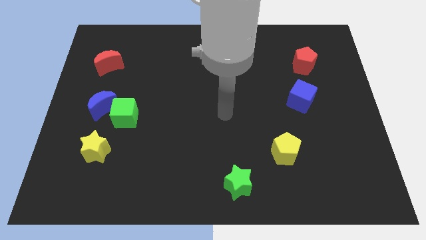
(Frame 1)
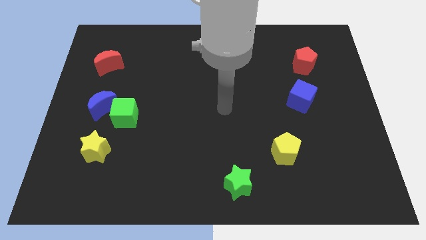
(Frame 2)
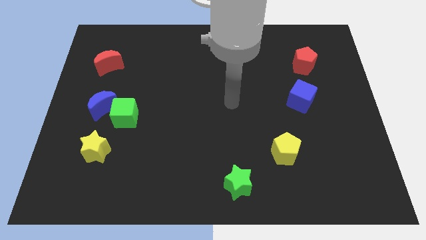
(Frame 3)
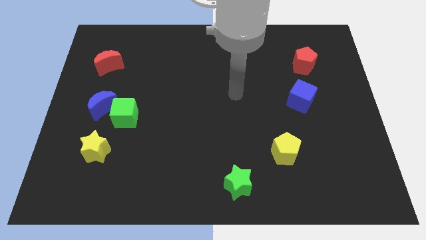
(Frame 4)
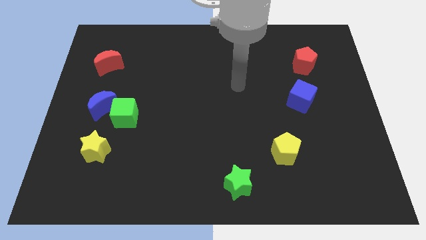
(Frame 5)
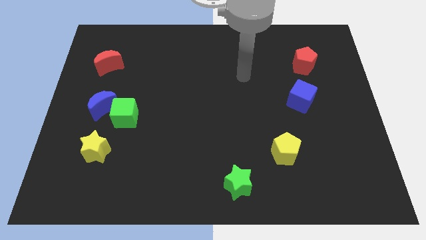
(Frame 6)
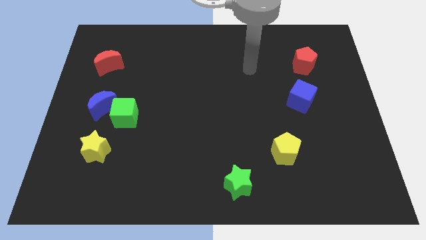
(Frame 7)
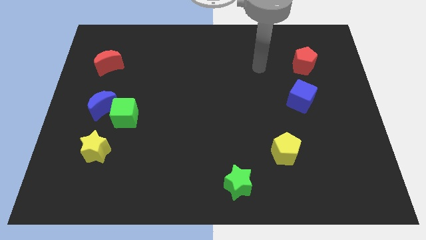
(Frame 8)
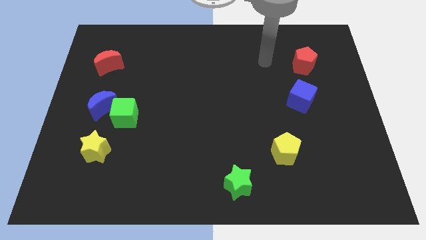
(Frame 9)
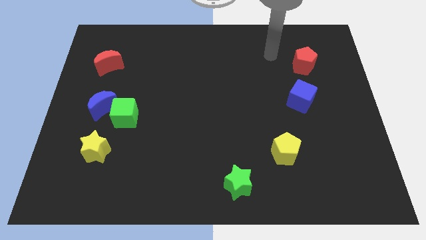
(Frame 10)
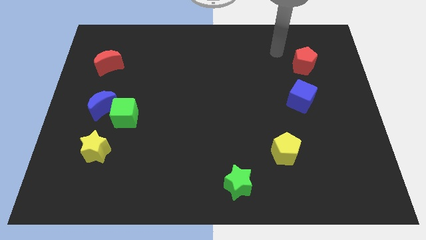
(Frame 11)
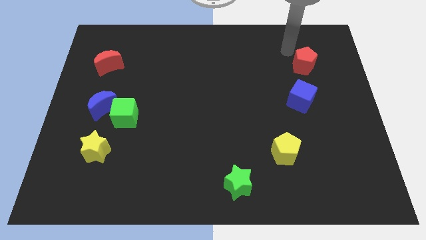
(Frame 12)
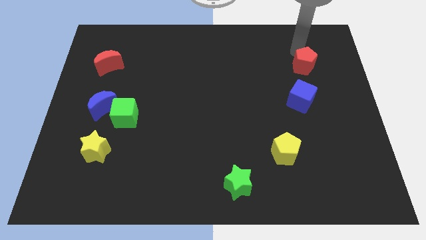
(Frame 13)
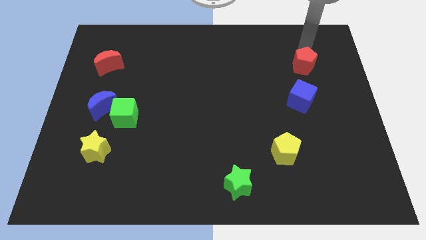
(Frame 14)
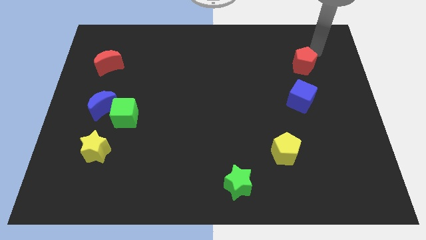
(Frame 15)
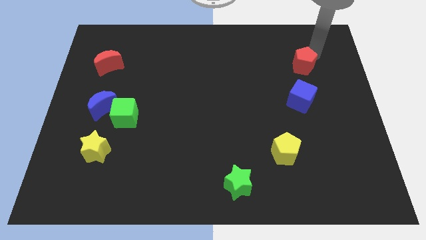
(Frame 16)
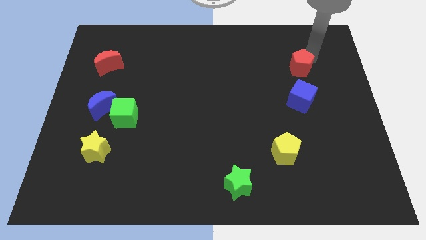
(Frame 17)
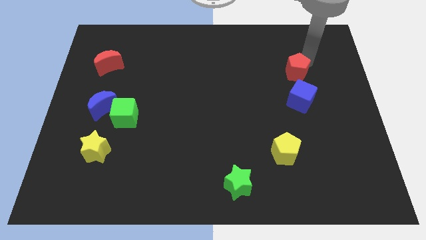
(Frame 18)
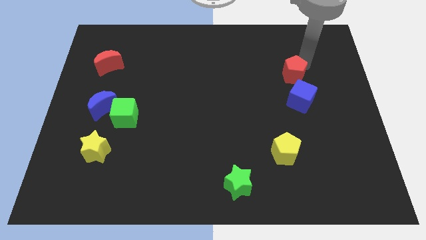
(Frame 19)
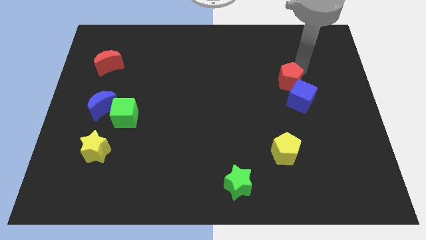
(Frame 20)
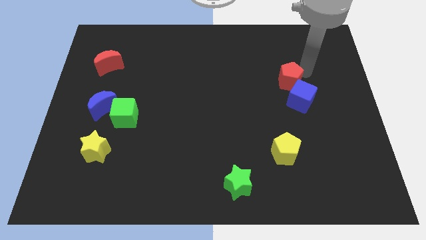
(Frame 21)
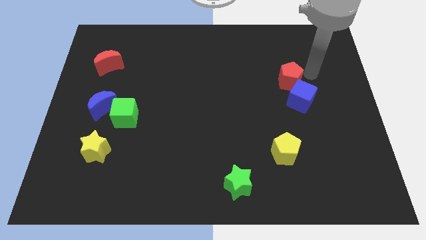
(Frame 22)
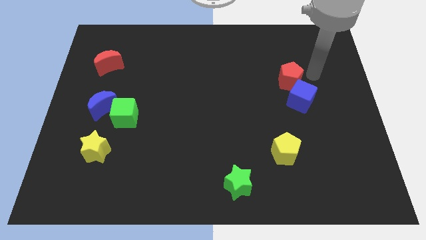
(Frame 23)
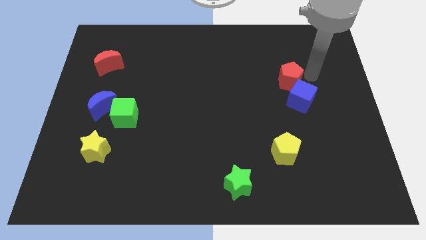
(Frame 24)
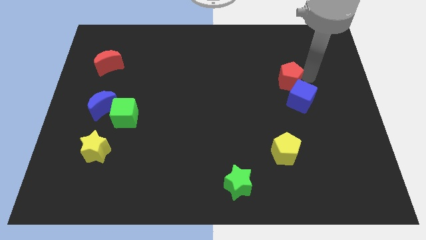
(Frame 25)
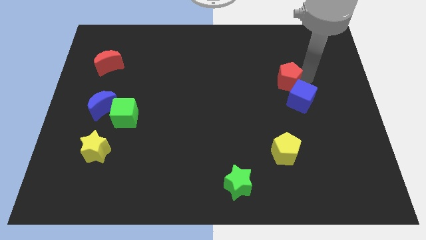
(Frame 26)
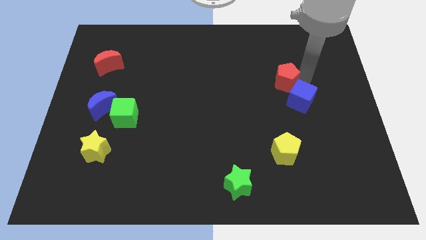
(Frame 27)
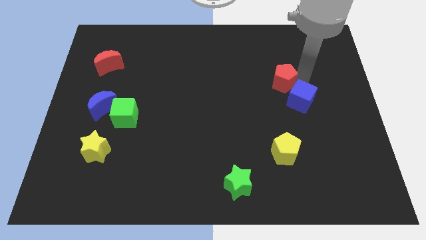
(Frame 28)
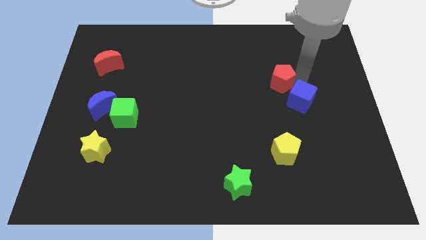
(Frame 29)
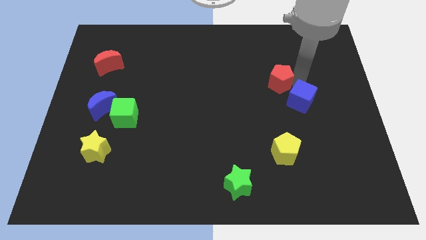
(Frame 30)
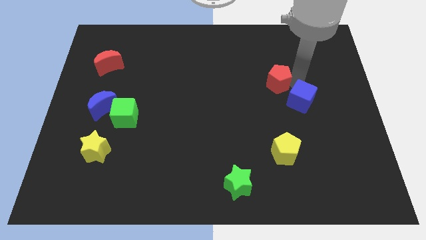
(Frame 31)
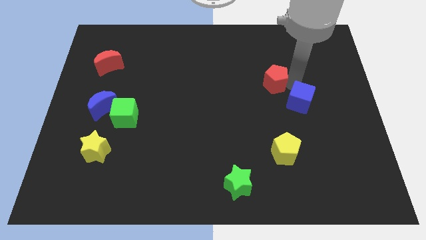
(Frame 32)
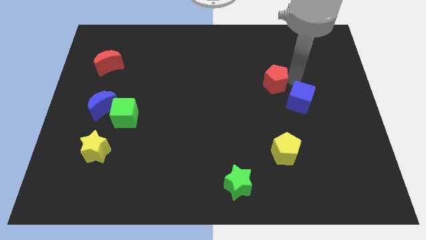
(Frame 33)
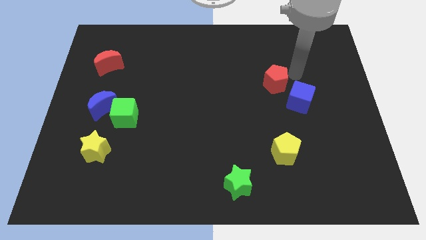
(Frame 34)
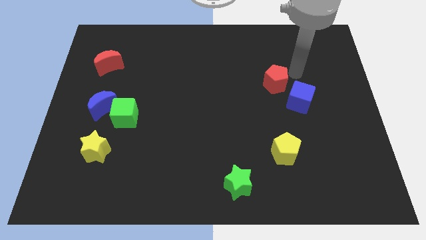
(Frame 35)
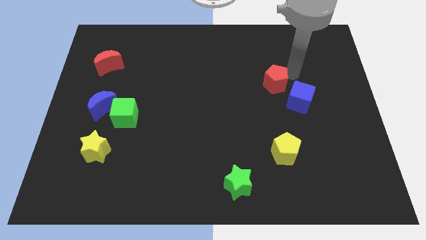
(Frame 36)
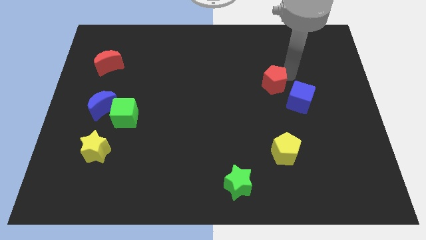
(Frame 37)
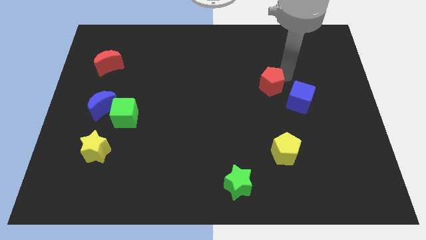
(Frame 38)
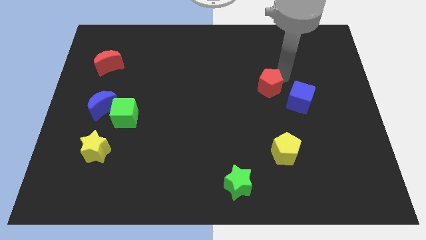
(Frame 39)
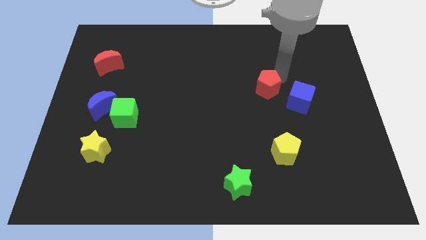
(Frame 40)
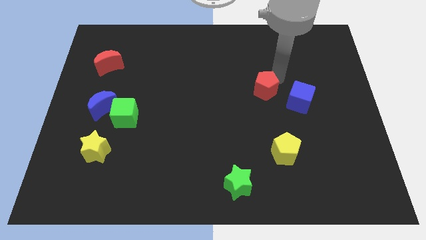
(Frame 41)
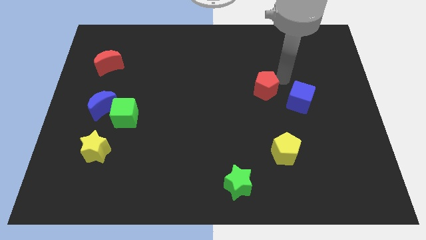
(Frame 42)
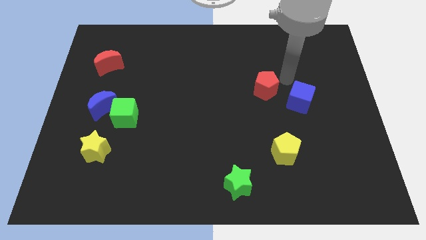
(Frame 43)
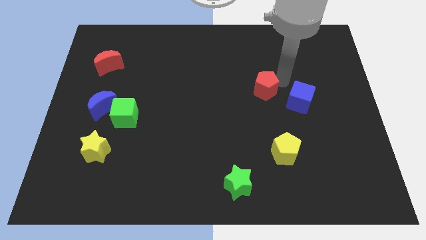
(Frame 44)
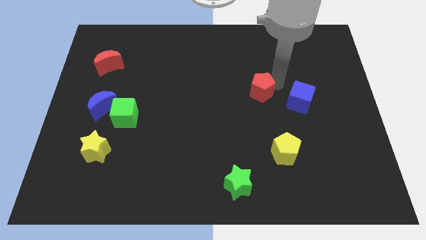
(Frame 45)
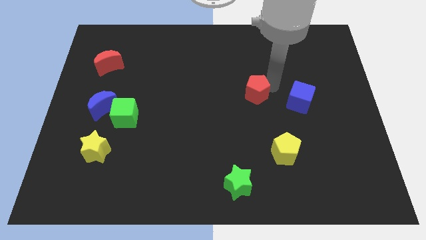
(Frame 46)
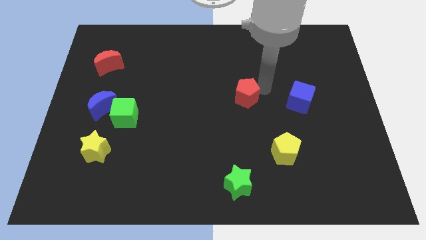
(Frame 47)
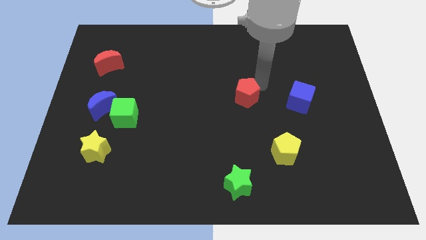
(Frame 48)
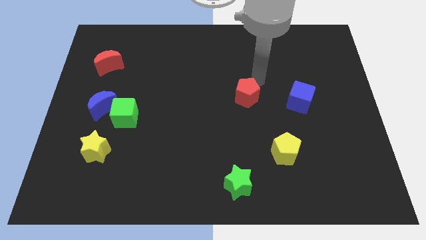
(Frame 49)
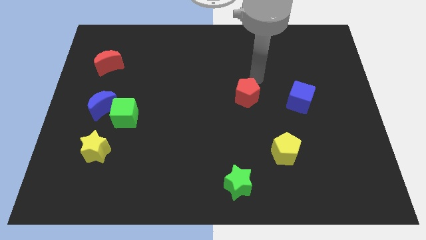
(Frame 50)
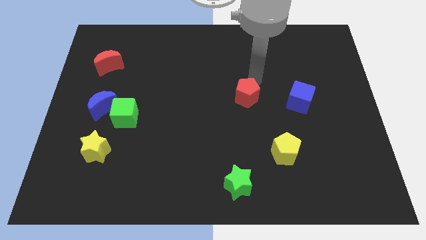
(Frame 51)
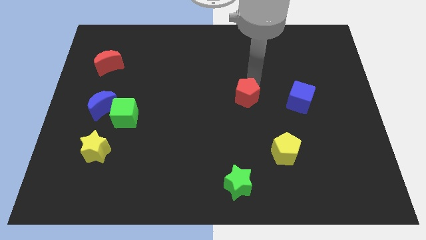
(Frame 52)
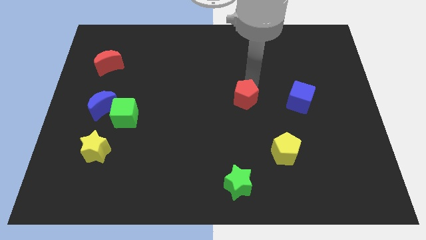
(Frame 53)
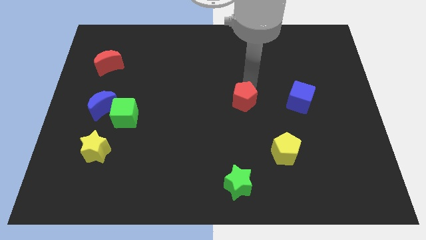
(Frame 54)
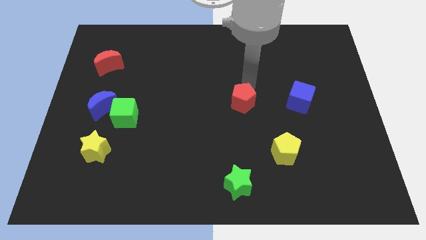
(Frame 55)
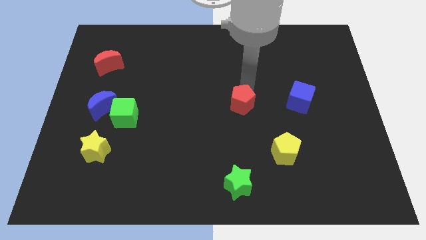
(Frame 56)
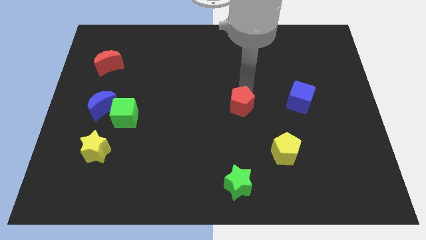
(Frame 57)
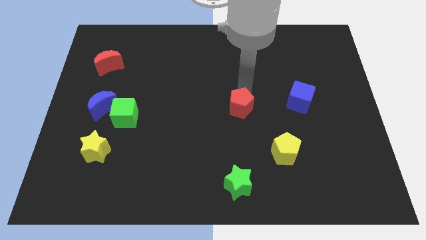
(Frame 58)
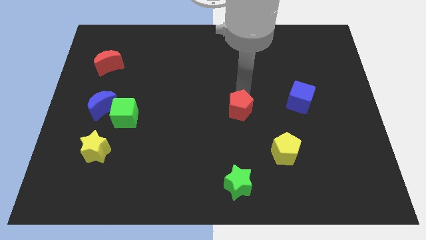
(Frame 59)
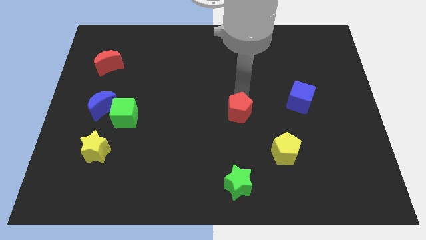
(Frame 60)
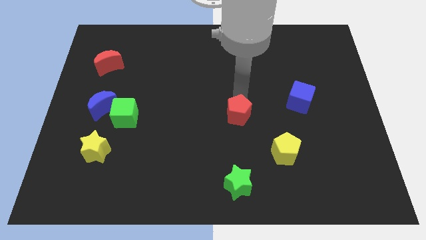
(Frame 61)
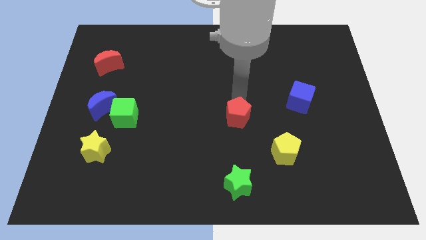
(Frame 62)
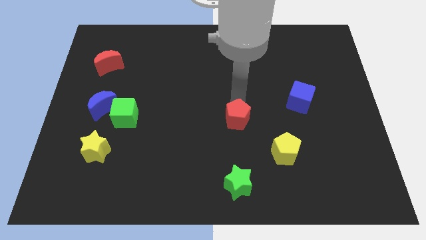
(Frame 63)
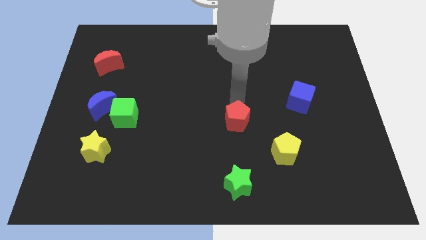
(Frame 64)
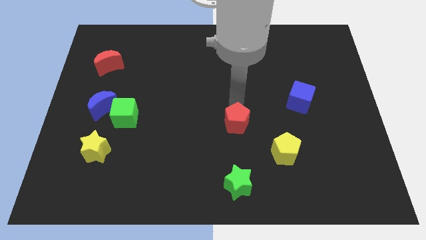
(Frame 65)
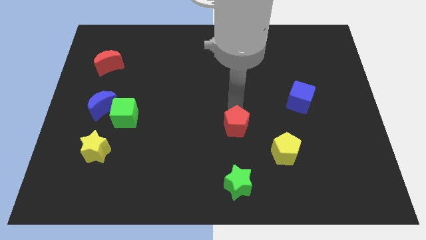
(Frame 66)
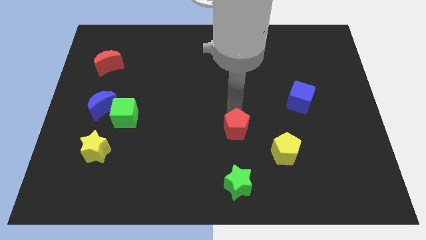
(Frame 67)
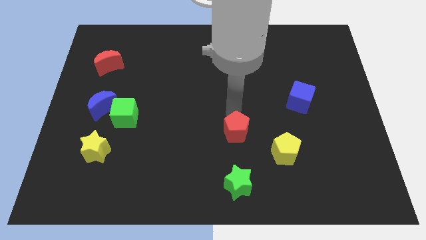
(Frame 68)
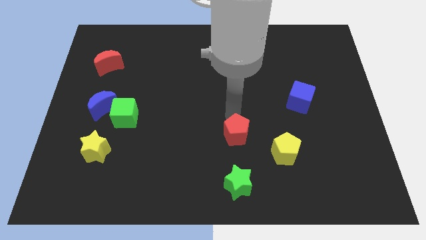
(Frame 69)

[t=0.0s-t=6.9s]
slide the red pentagon left of the yellow pentagon
